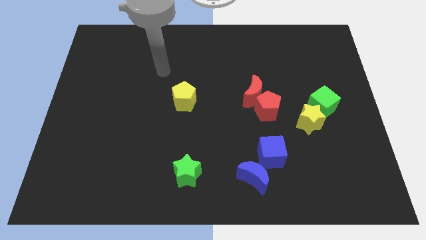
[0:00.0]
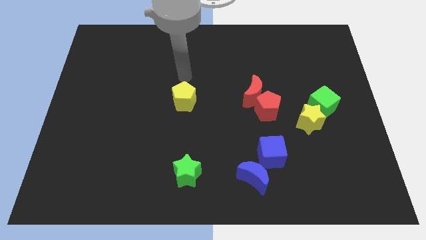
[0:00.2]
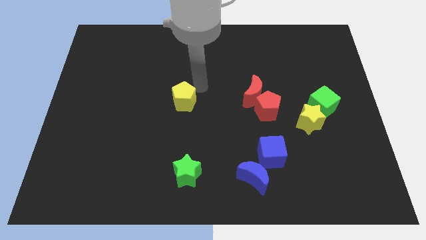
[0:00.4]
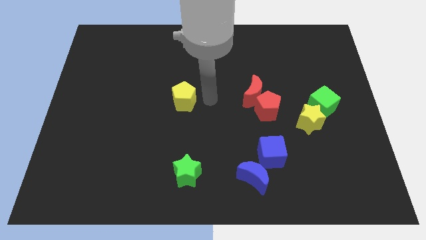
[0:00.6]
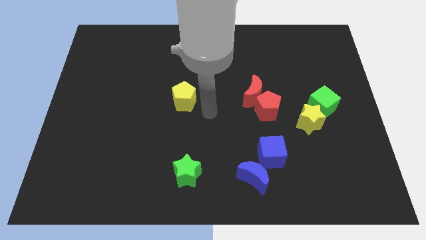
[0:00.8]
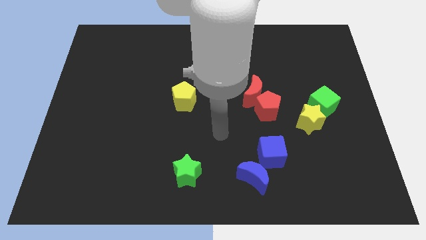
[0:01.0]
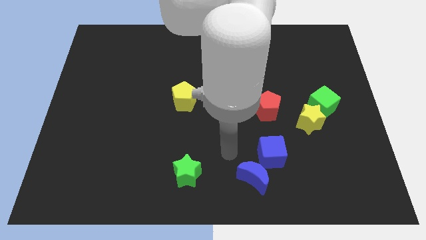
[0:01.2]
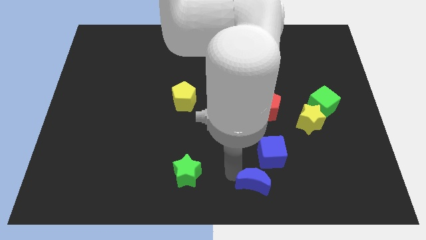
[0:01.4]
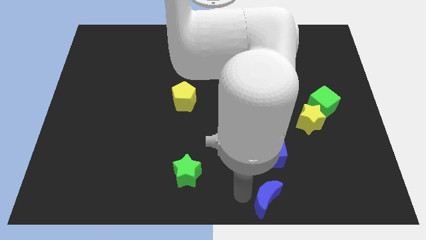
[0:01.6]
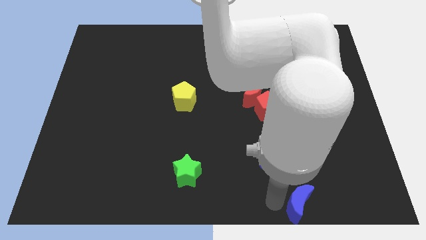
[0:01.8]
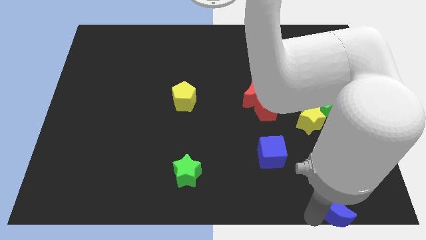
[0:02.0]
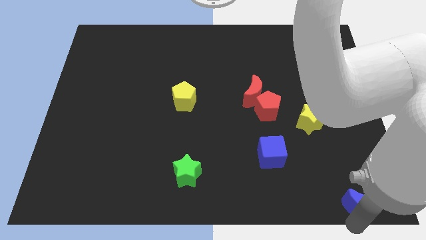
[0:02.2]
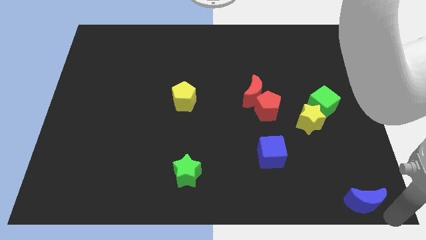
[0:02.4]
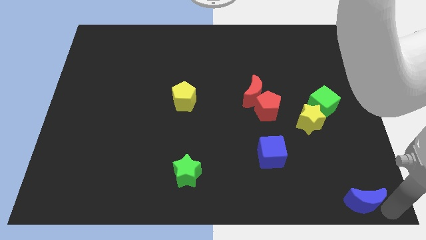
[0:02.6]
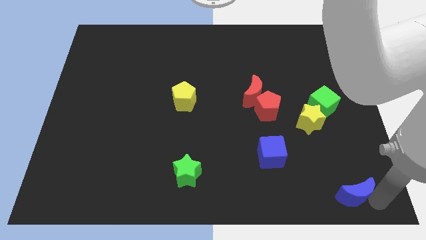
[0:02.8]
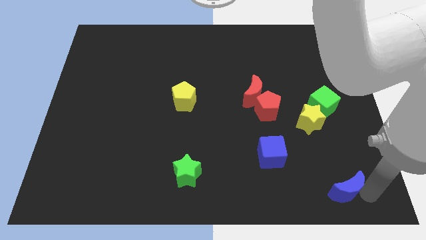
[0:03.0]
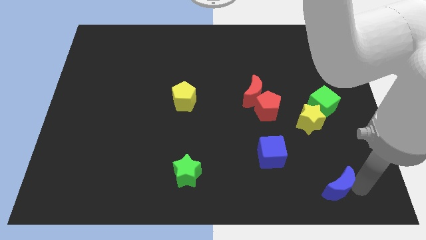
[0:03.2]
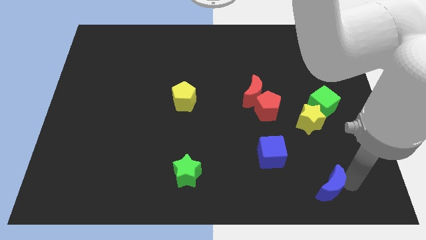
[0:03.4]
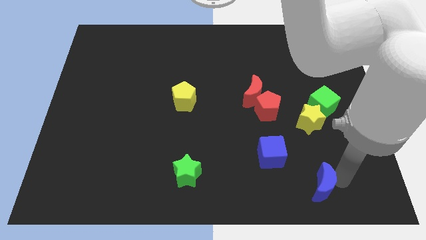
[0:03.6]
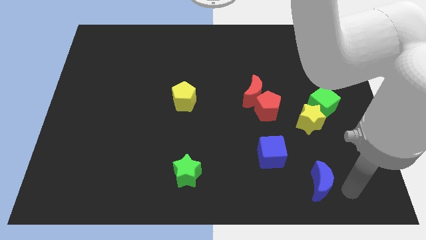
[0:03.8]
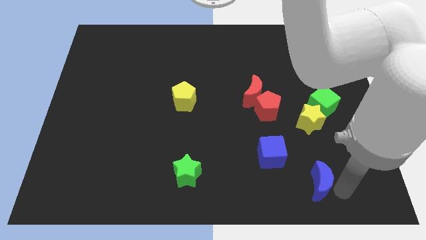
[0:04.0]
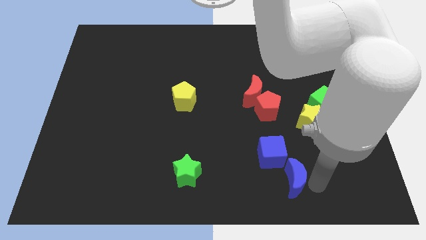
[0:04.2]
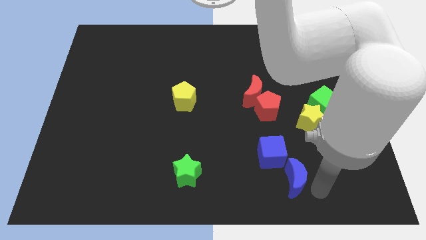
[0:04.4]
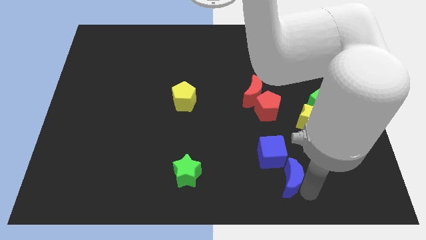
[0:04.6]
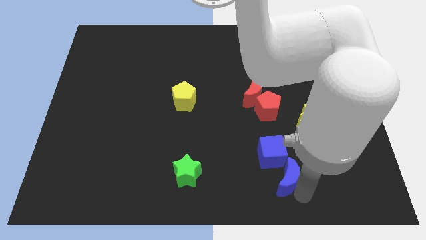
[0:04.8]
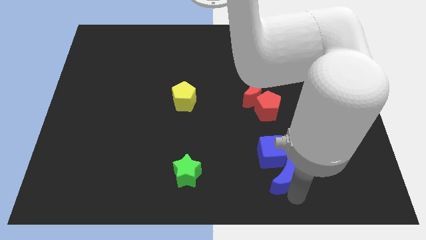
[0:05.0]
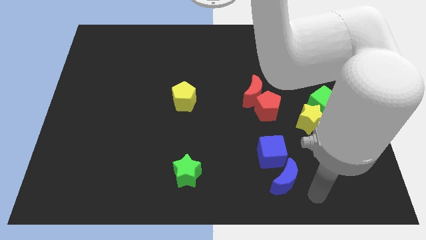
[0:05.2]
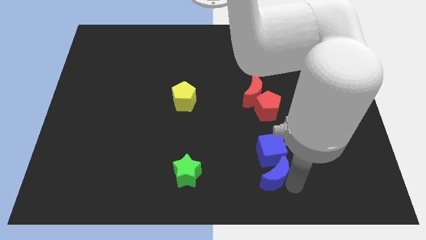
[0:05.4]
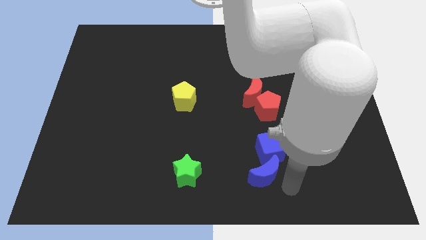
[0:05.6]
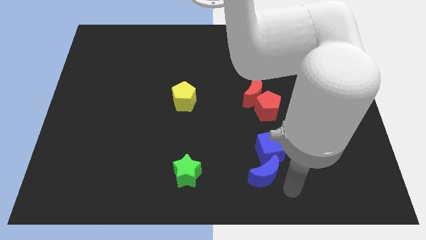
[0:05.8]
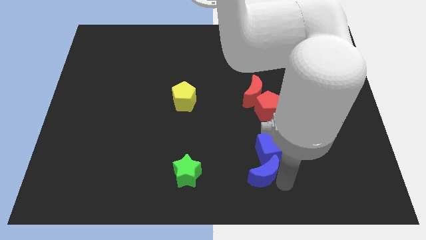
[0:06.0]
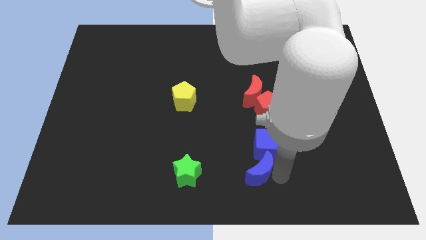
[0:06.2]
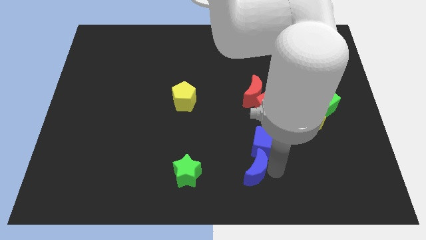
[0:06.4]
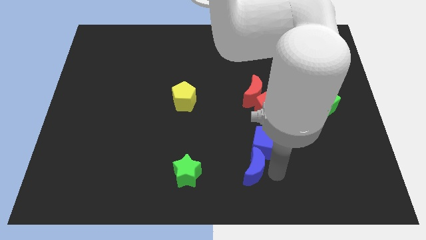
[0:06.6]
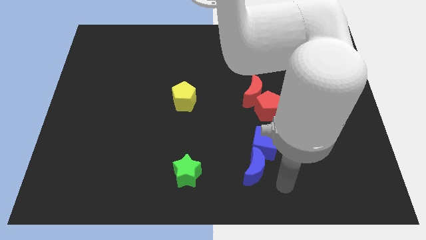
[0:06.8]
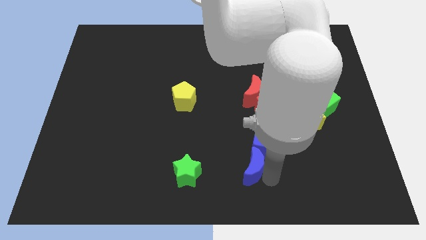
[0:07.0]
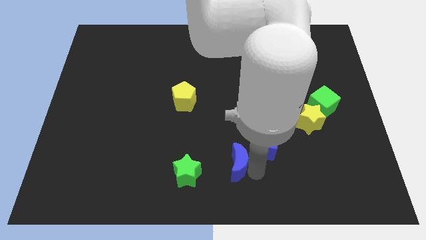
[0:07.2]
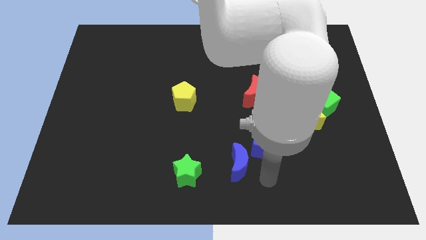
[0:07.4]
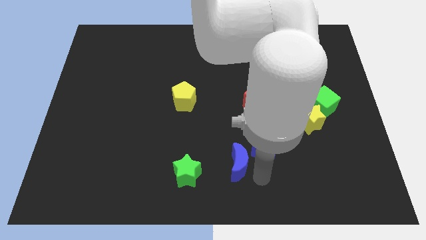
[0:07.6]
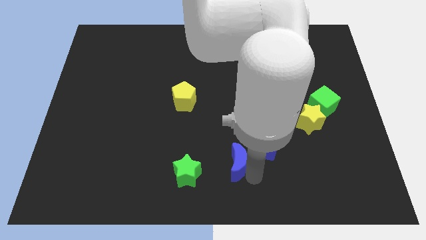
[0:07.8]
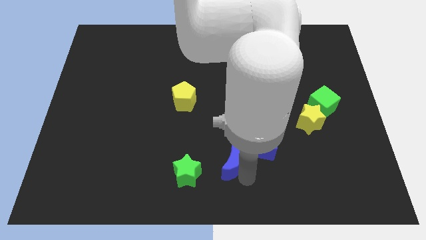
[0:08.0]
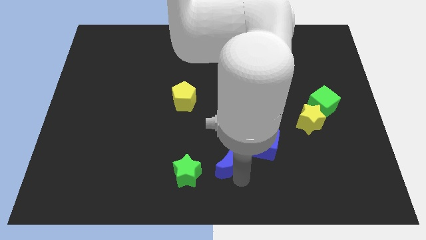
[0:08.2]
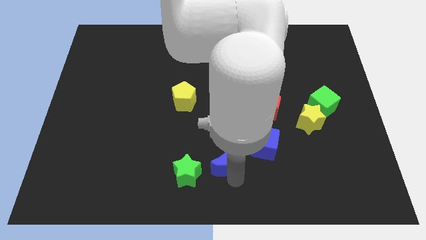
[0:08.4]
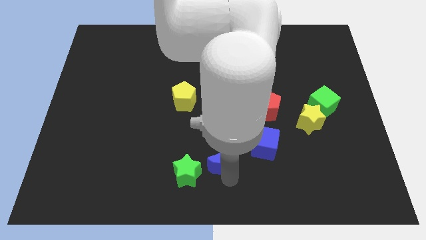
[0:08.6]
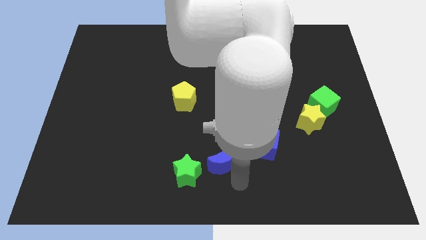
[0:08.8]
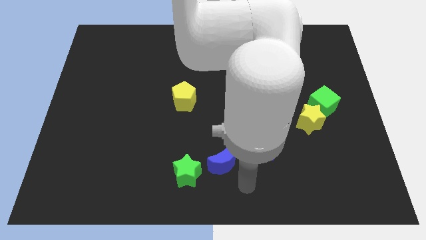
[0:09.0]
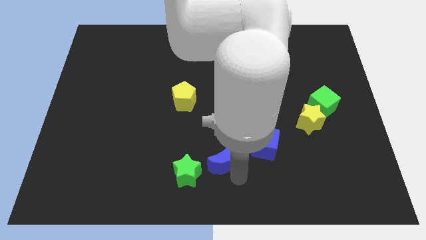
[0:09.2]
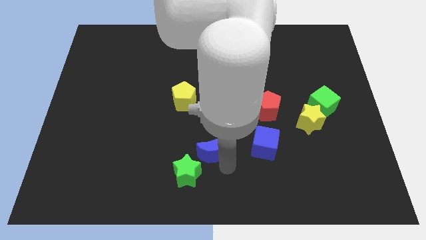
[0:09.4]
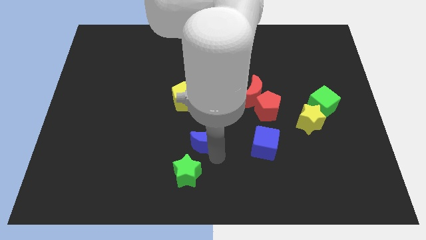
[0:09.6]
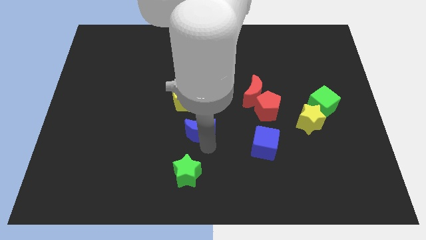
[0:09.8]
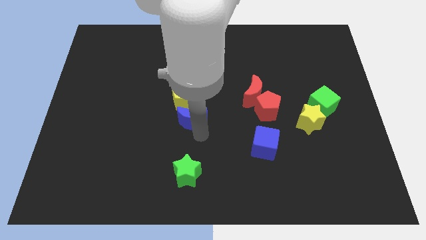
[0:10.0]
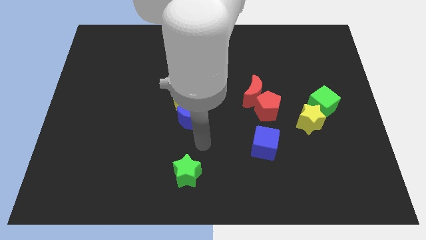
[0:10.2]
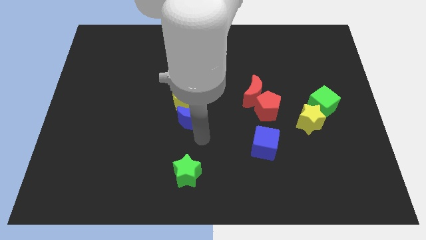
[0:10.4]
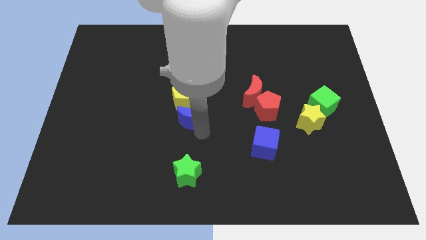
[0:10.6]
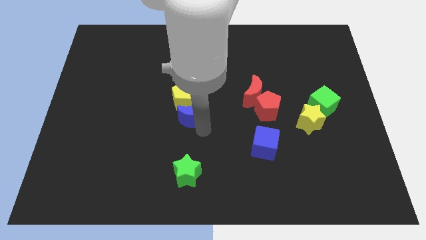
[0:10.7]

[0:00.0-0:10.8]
push the blue moon next to the yellow pentagon
